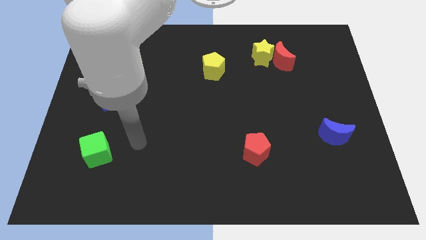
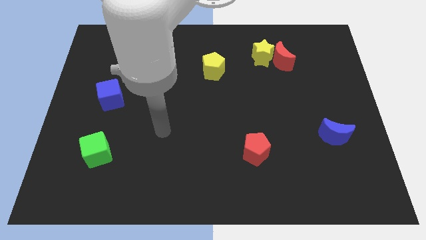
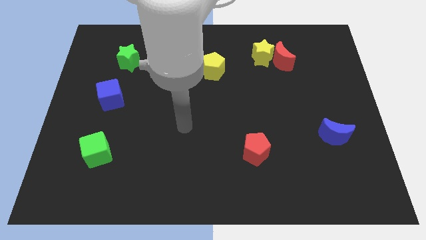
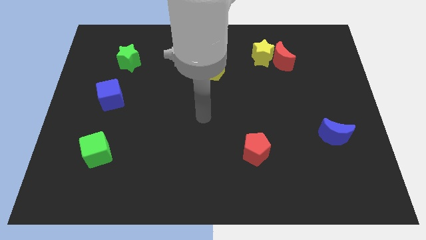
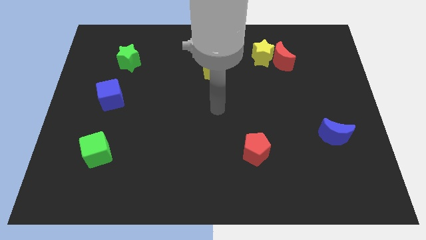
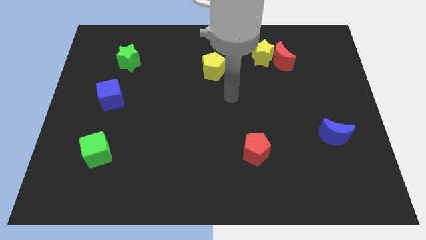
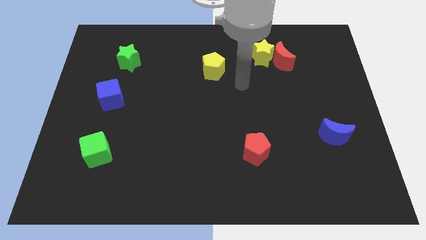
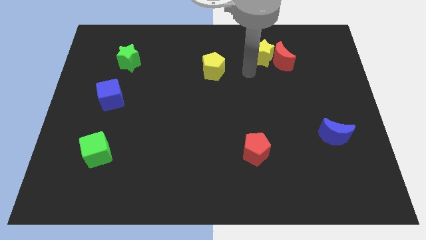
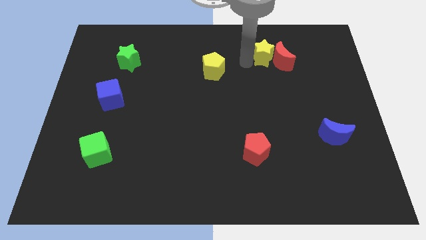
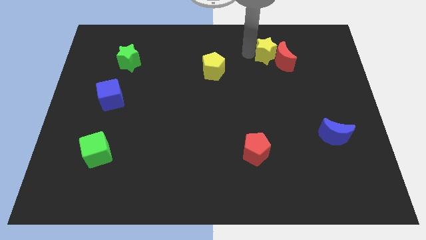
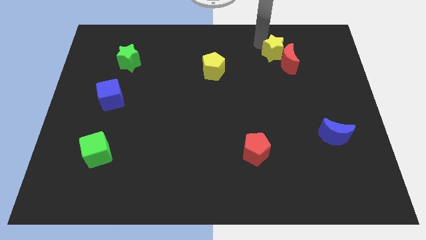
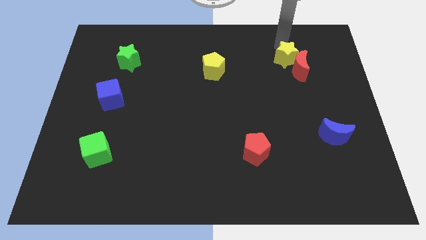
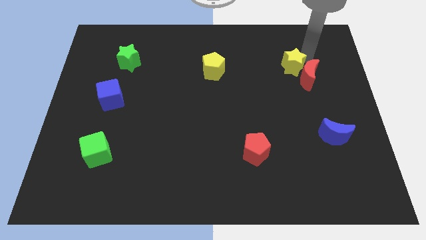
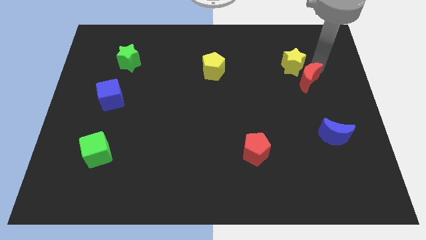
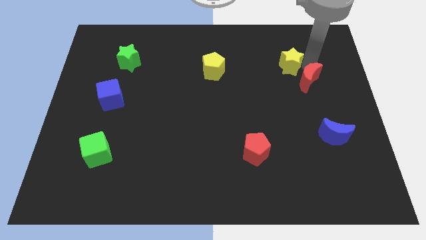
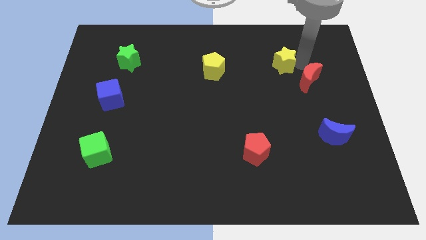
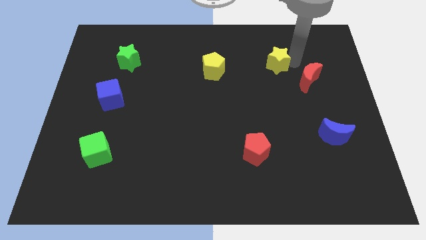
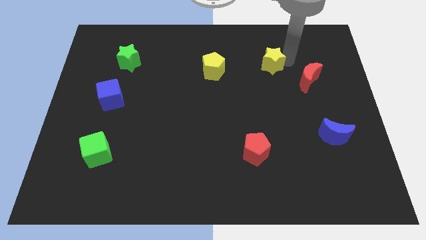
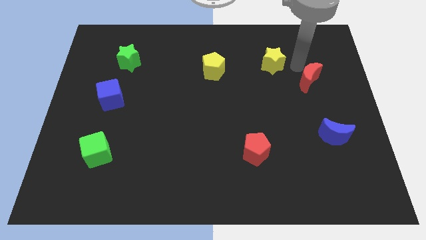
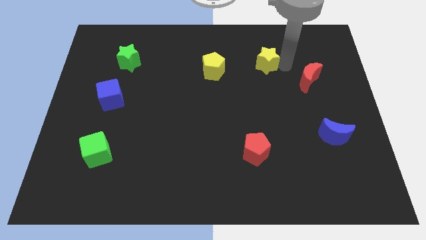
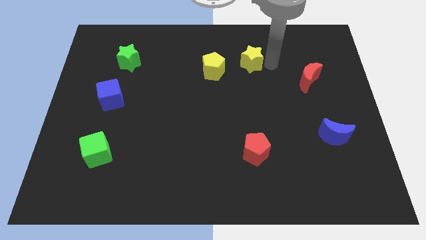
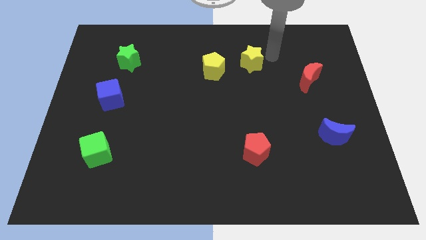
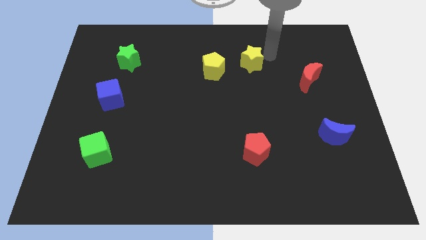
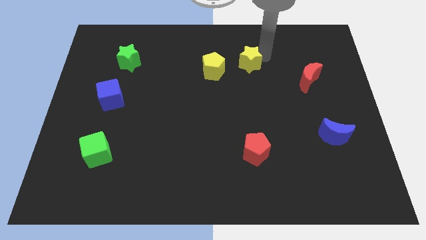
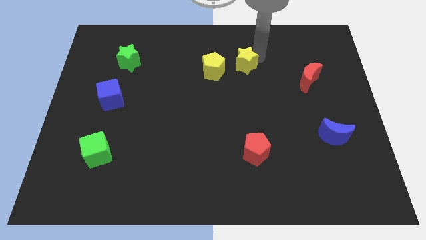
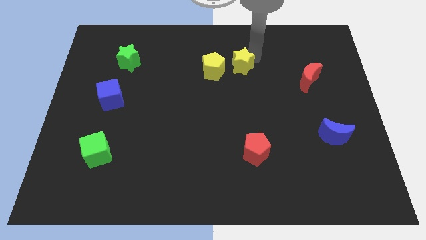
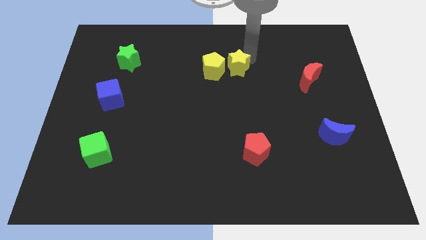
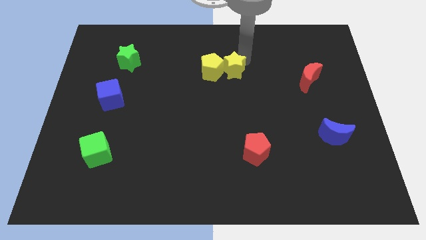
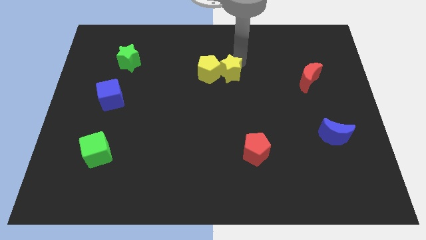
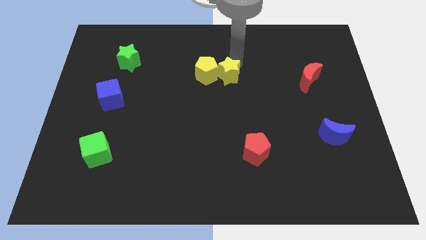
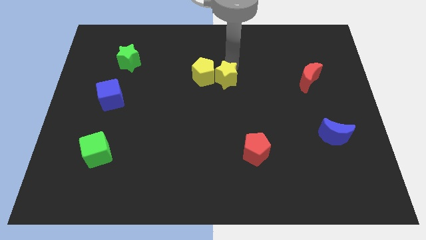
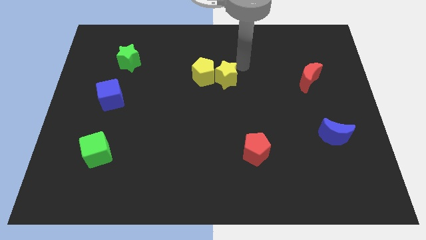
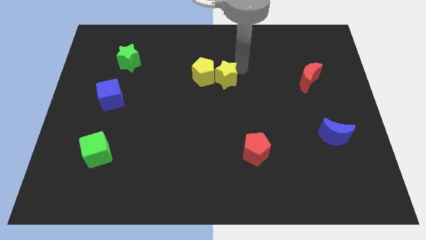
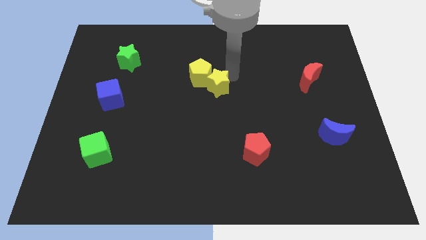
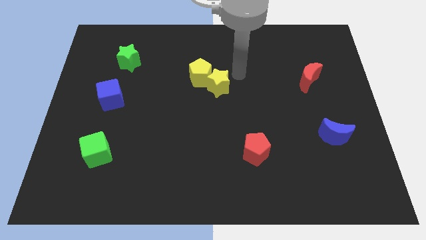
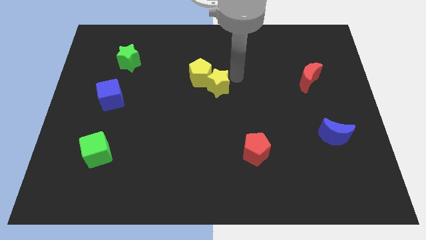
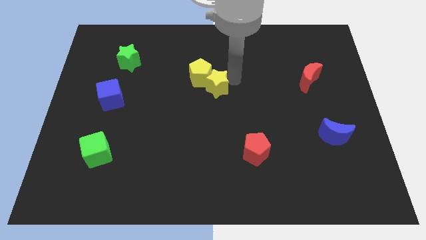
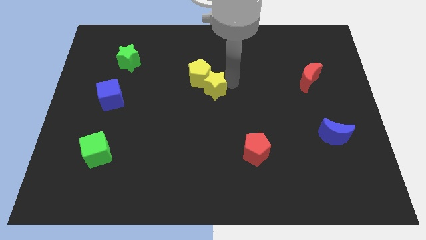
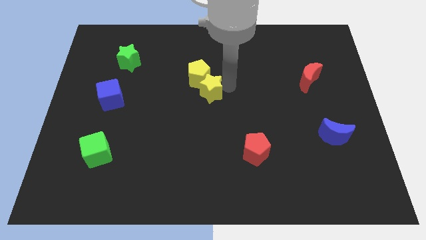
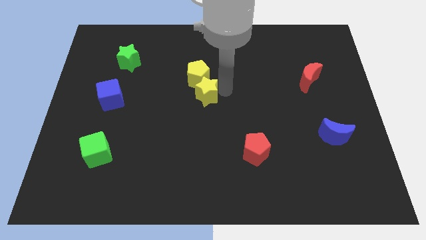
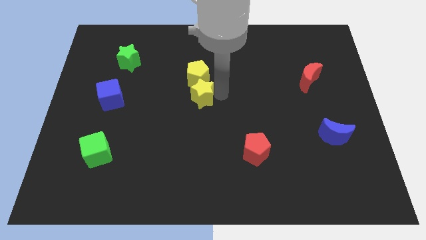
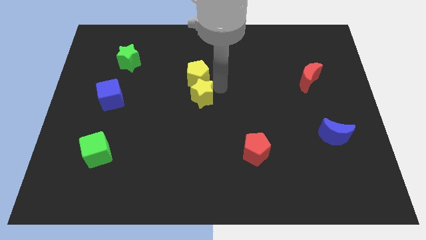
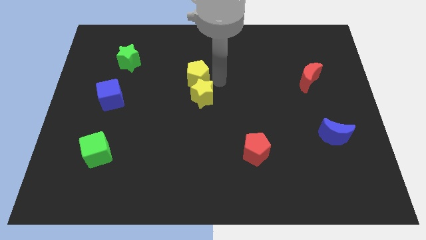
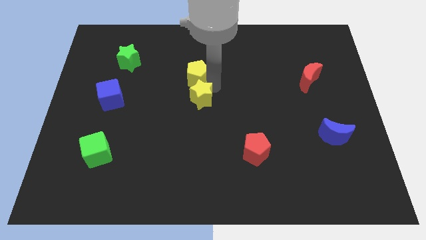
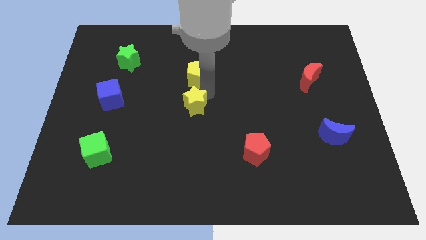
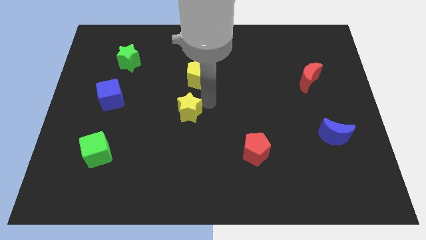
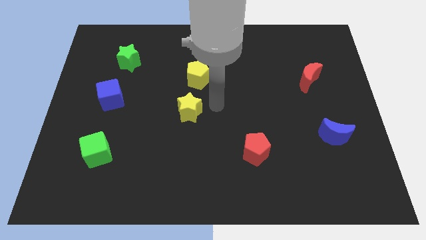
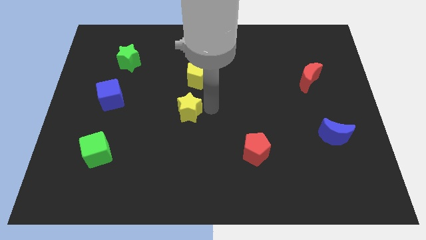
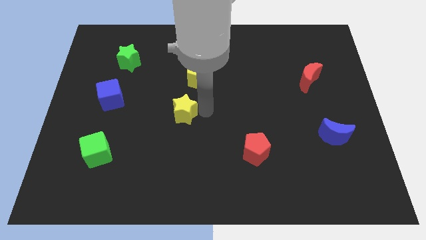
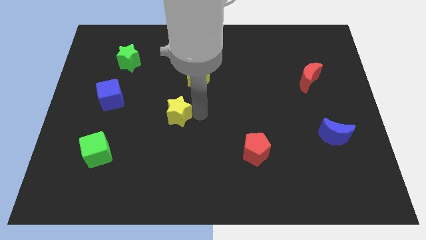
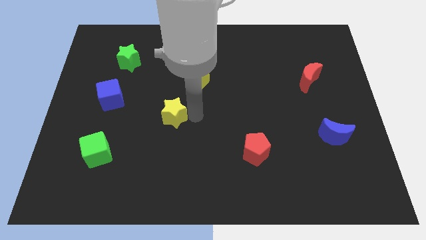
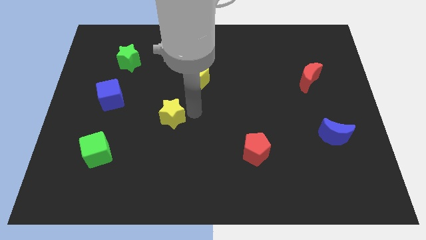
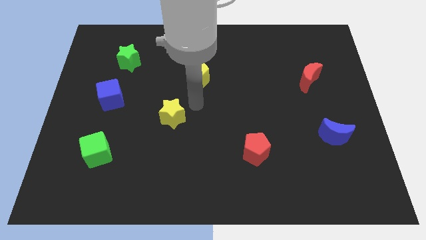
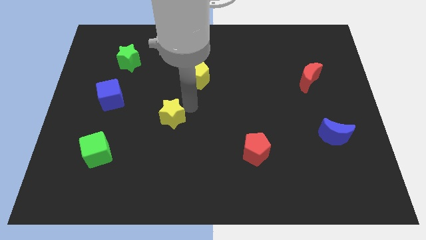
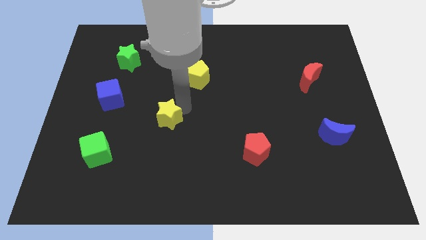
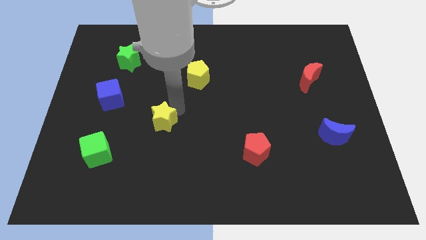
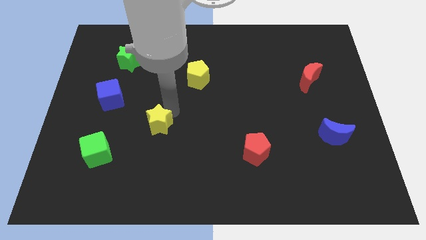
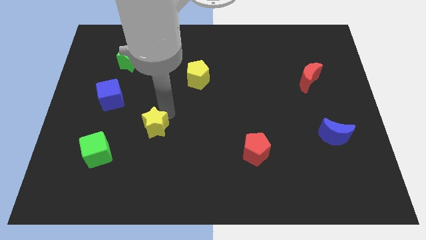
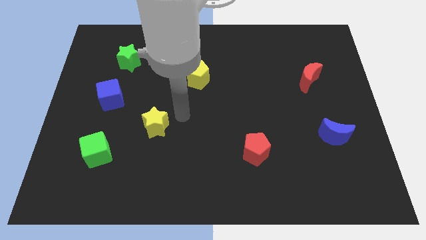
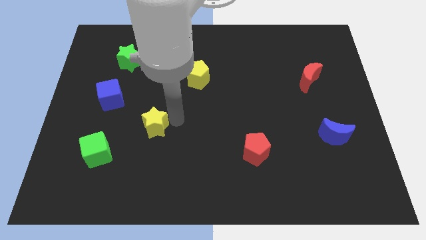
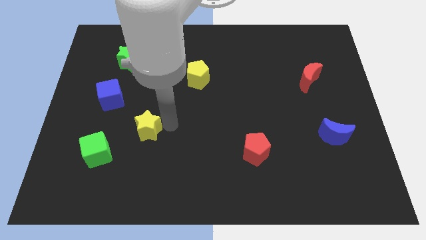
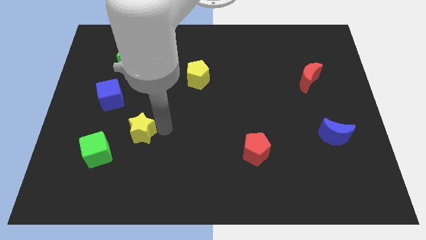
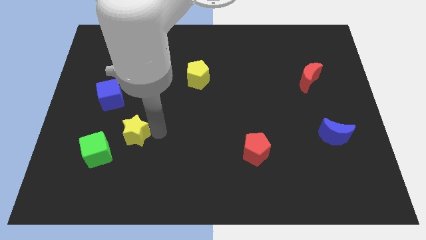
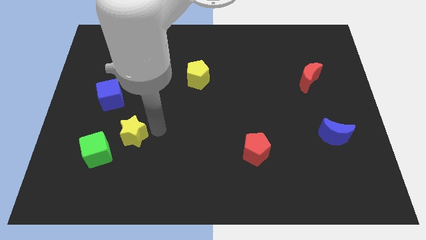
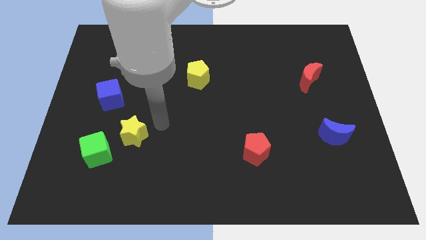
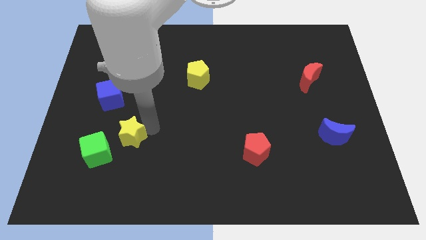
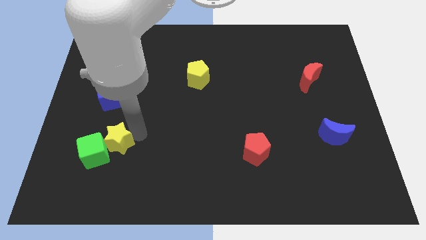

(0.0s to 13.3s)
move the yellow star close to the green cube

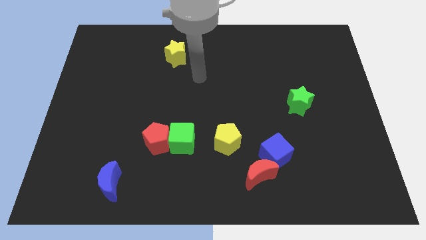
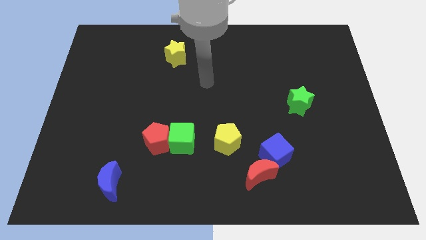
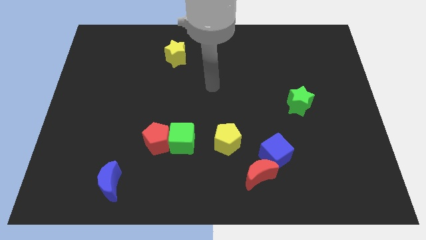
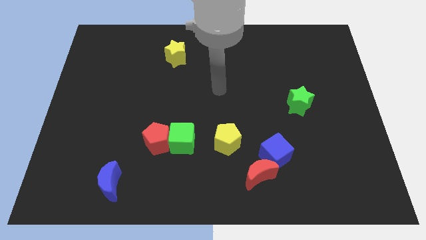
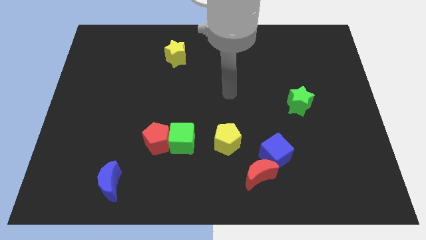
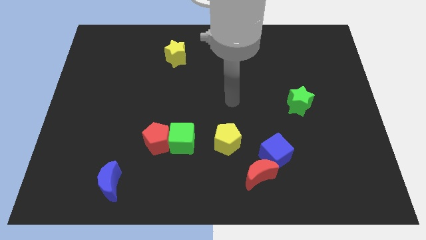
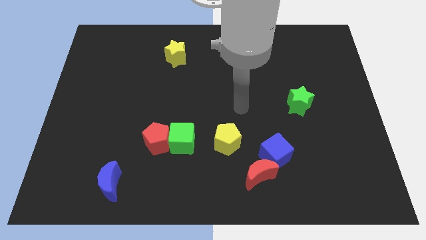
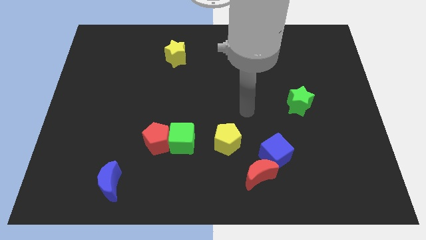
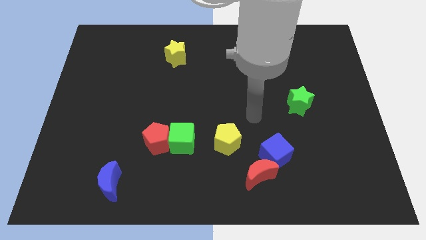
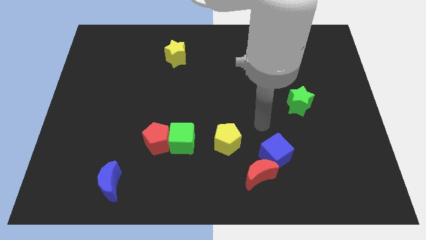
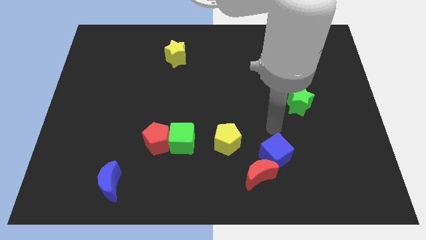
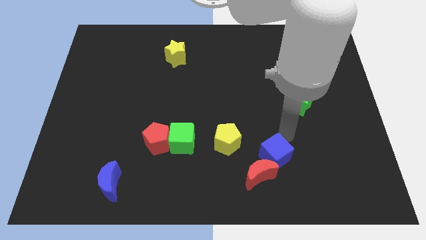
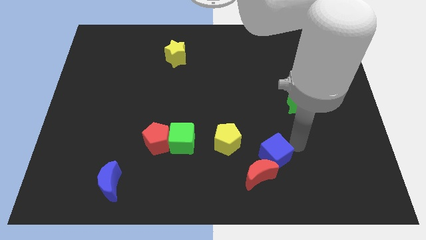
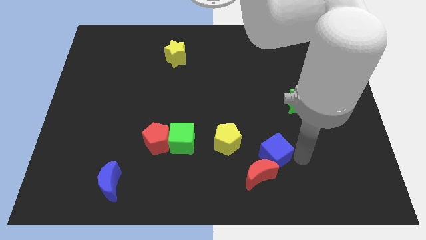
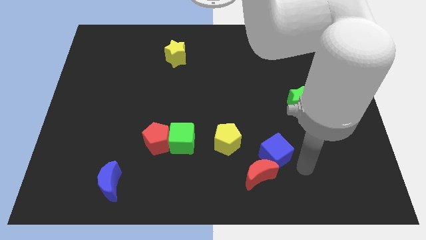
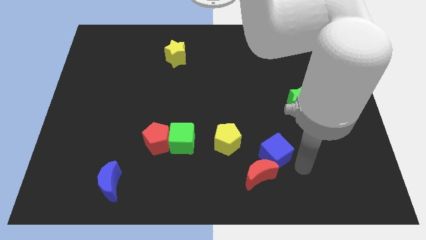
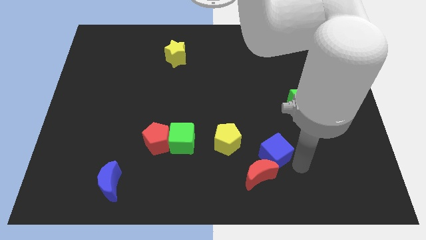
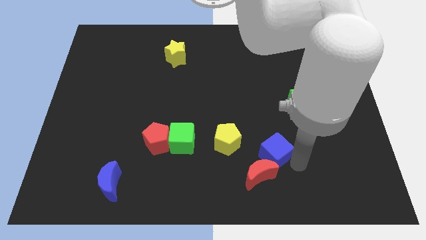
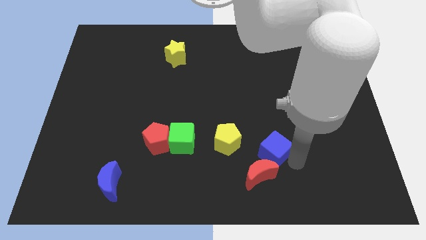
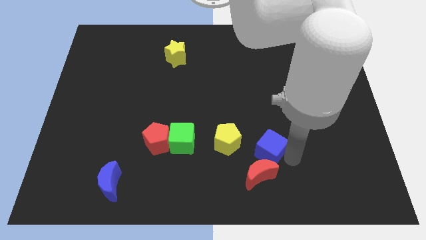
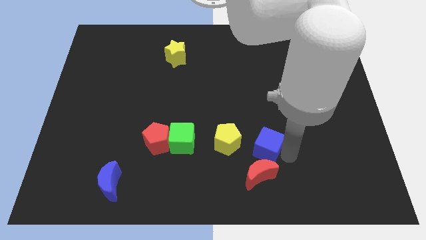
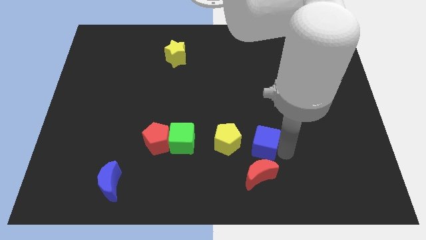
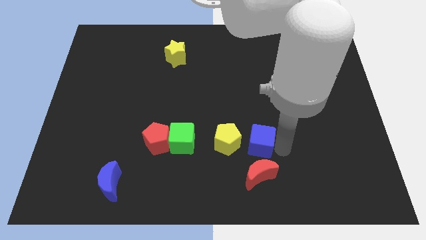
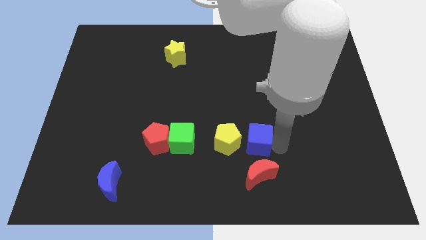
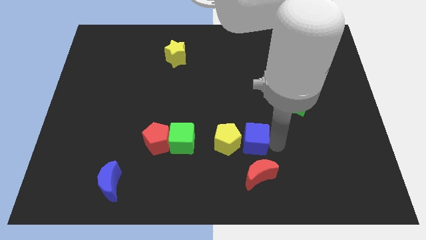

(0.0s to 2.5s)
put the blue cube to the yellow pentagon
